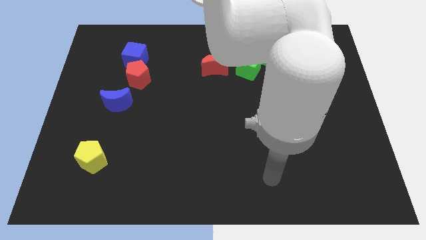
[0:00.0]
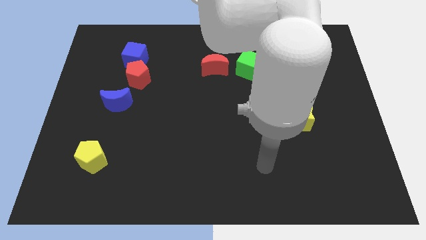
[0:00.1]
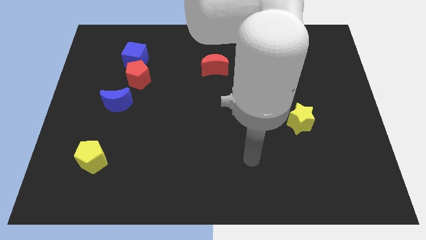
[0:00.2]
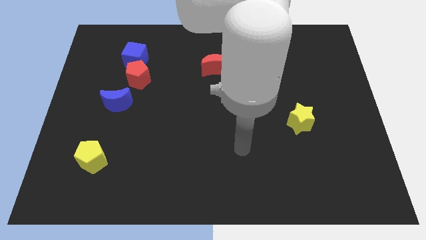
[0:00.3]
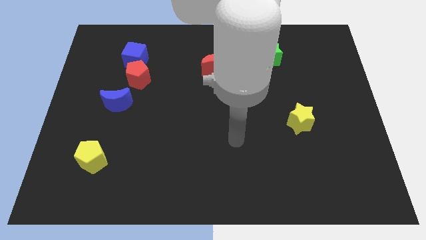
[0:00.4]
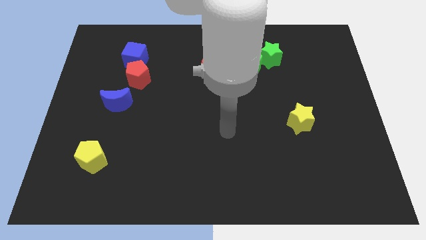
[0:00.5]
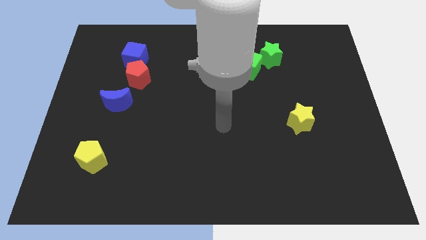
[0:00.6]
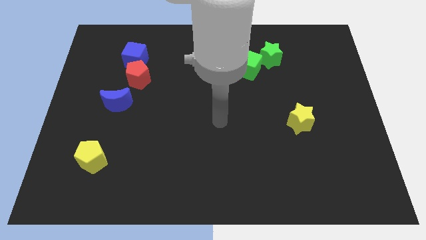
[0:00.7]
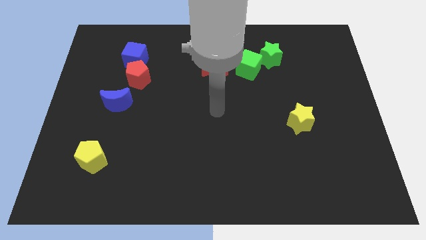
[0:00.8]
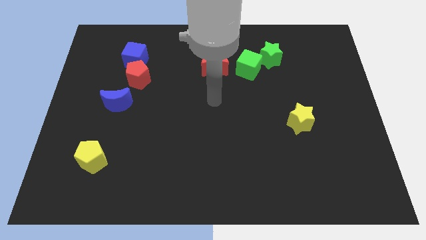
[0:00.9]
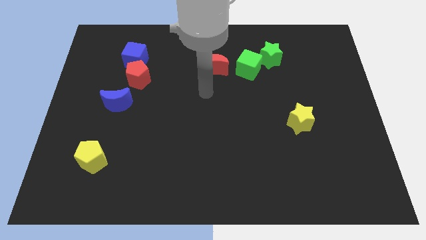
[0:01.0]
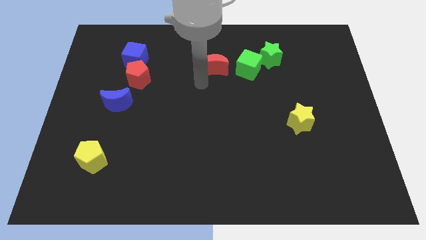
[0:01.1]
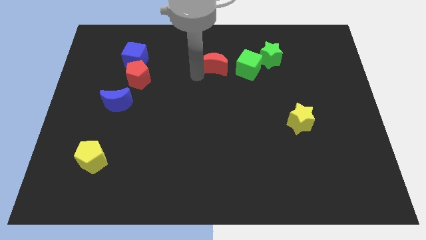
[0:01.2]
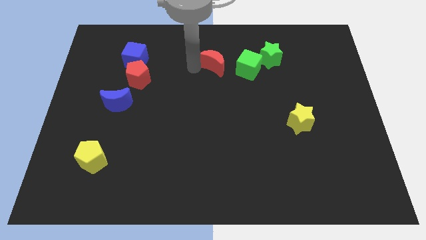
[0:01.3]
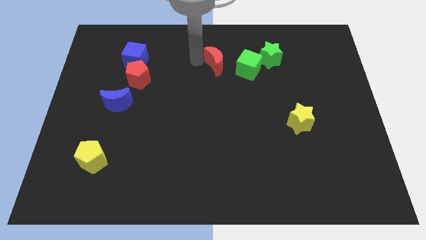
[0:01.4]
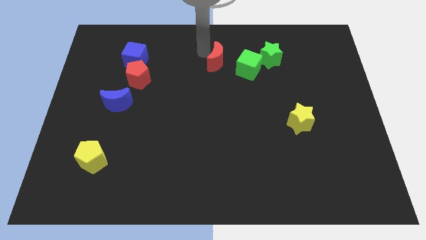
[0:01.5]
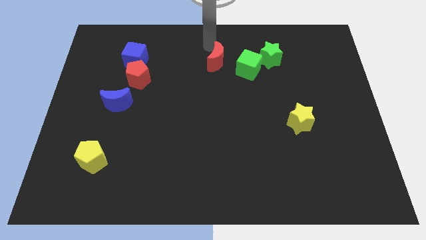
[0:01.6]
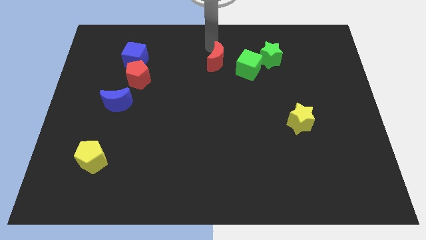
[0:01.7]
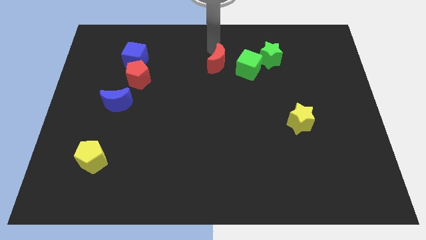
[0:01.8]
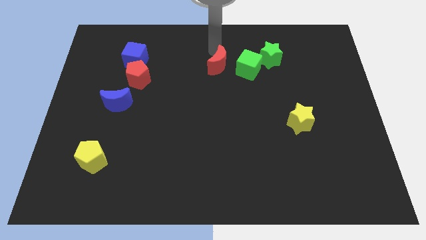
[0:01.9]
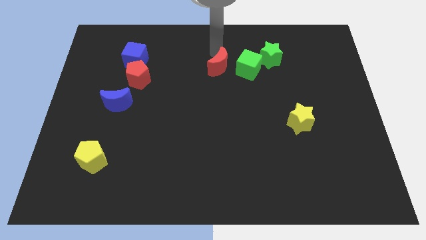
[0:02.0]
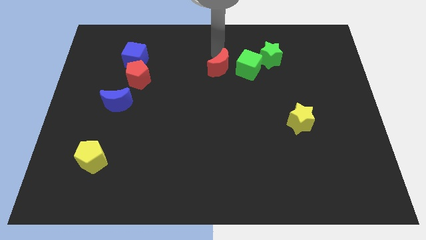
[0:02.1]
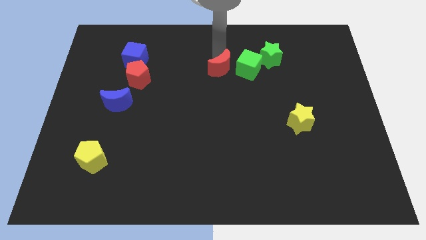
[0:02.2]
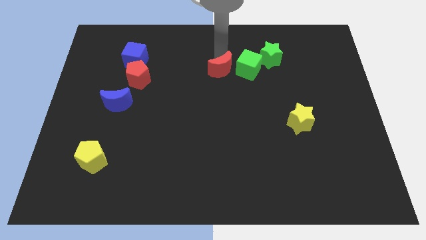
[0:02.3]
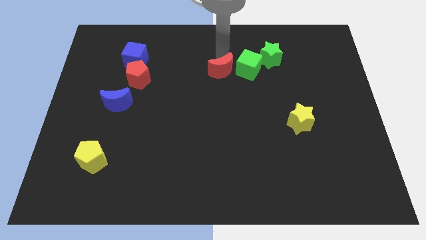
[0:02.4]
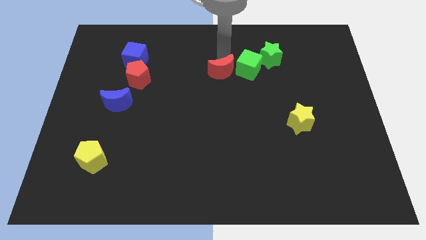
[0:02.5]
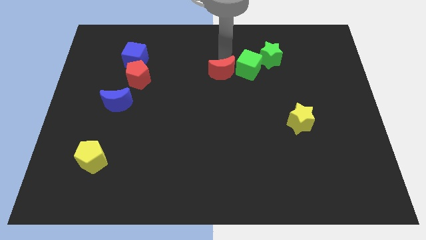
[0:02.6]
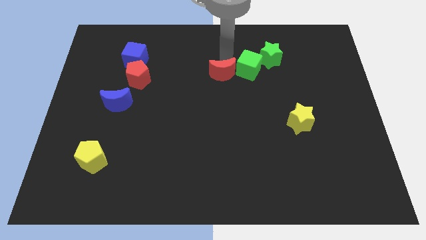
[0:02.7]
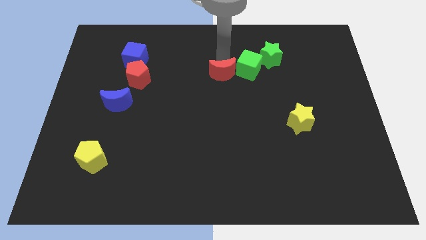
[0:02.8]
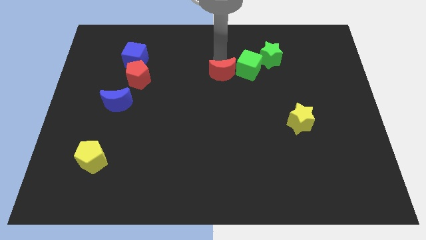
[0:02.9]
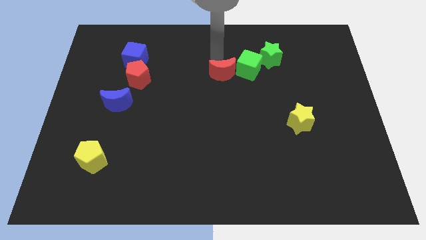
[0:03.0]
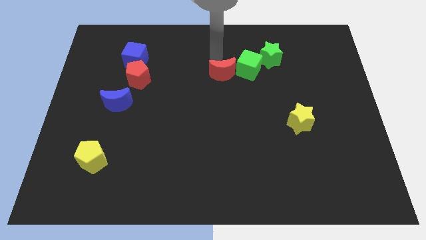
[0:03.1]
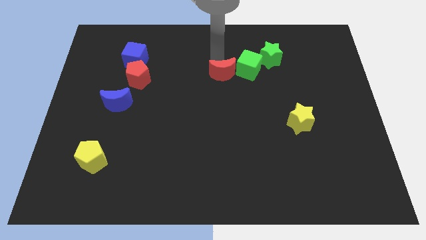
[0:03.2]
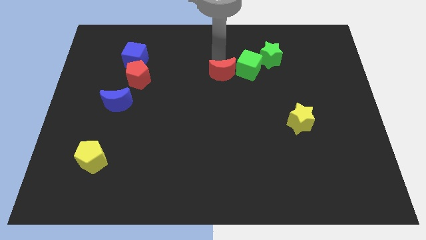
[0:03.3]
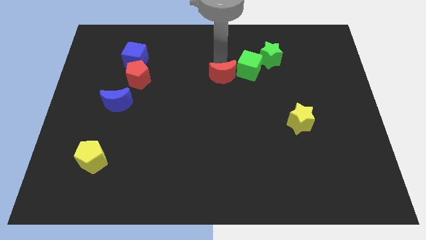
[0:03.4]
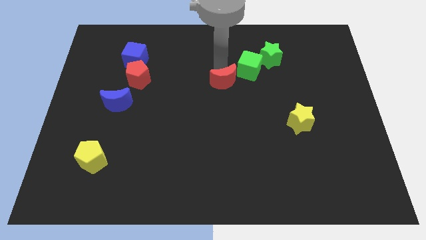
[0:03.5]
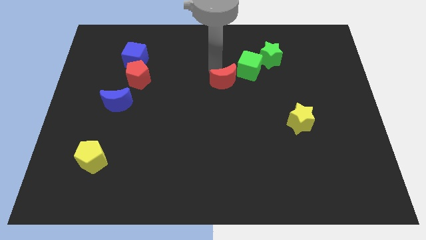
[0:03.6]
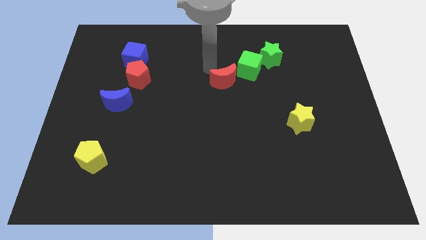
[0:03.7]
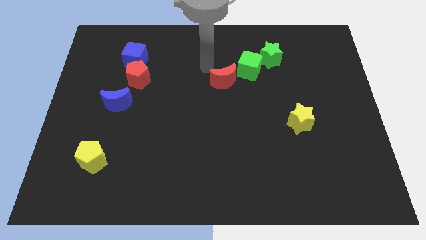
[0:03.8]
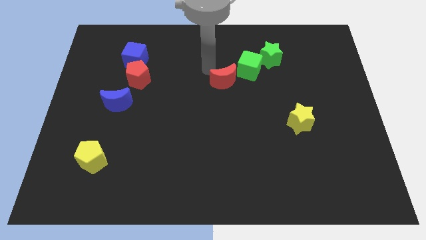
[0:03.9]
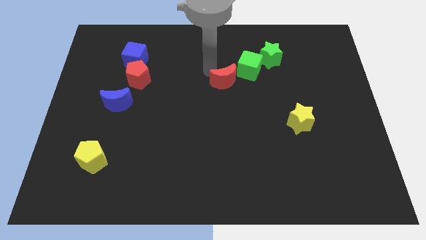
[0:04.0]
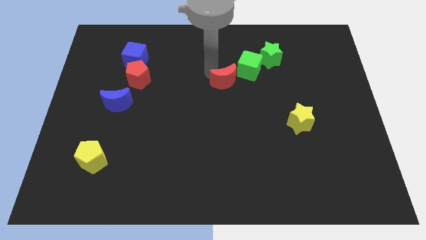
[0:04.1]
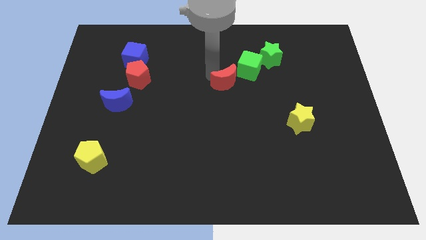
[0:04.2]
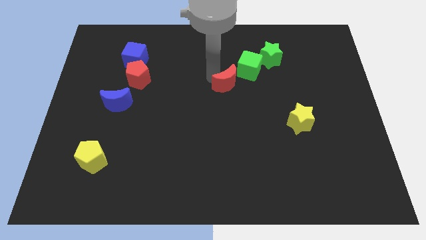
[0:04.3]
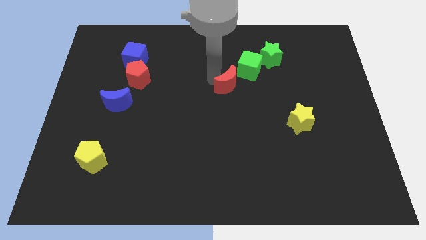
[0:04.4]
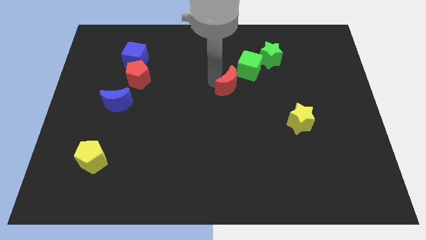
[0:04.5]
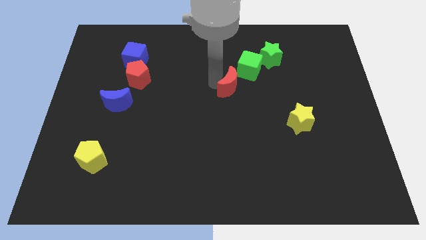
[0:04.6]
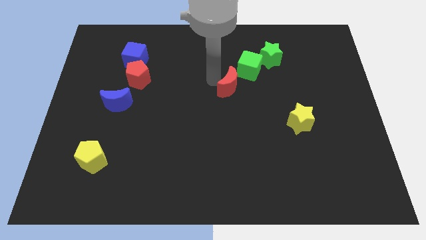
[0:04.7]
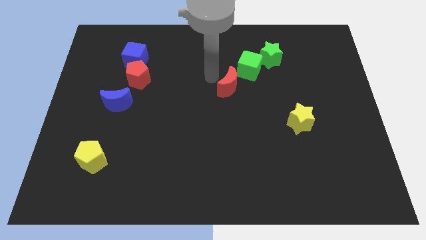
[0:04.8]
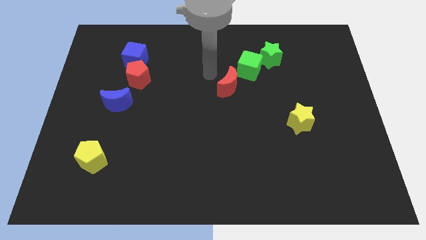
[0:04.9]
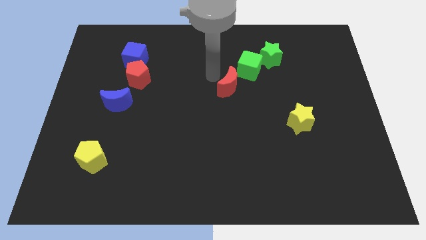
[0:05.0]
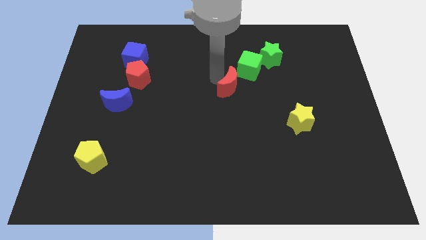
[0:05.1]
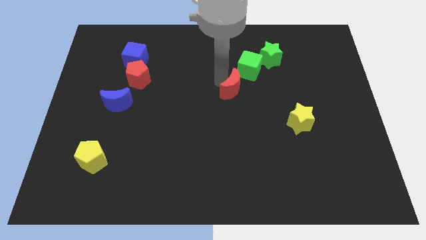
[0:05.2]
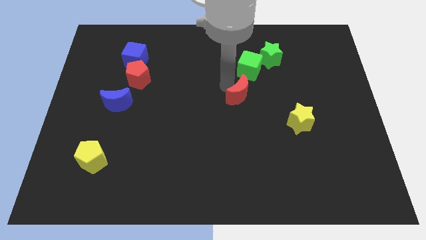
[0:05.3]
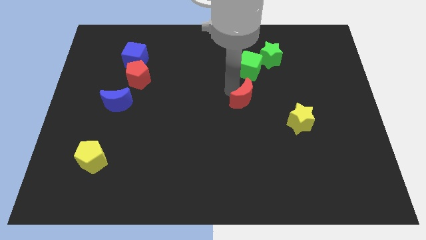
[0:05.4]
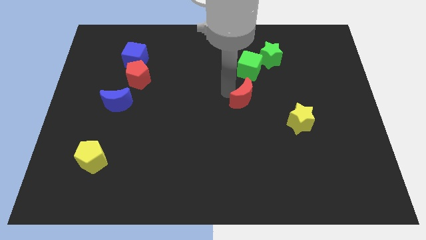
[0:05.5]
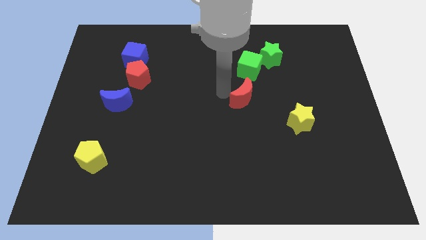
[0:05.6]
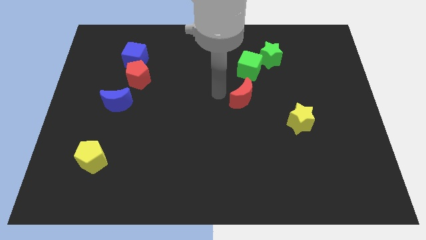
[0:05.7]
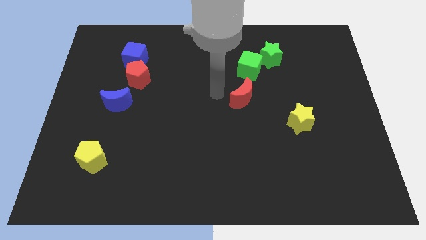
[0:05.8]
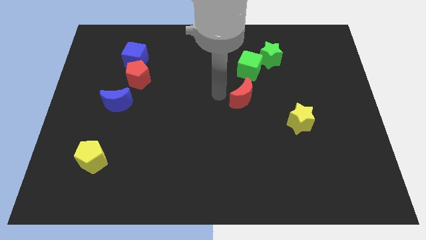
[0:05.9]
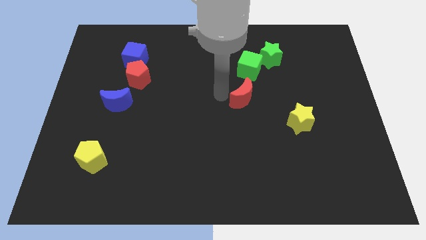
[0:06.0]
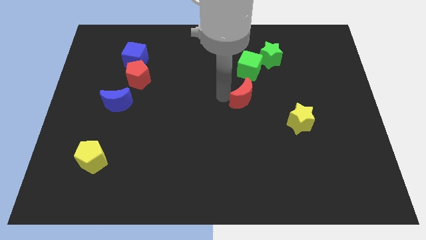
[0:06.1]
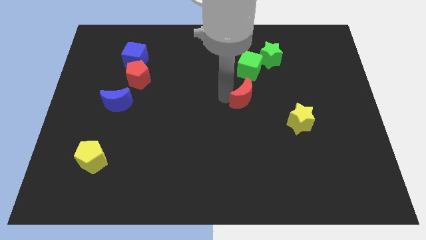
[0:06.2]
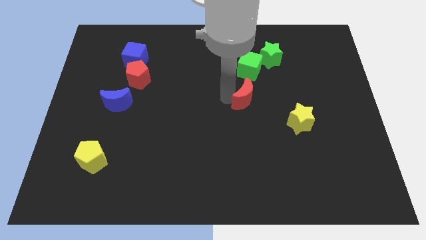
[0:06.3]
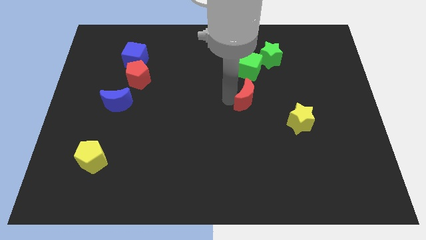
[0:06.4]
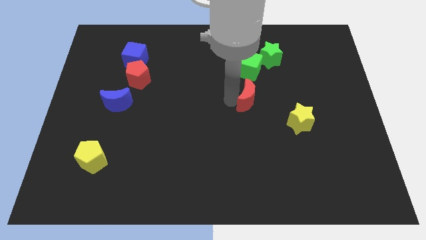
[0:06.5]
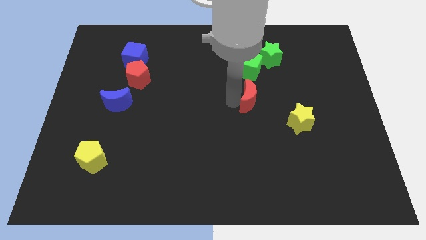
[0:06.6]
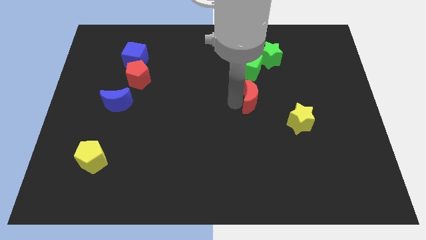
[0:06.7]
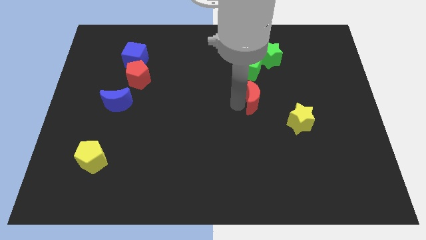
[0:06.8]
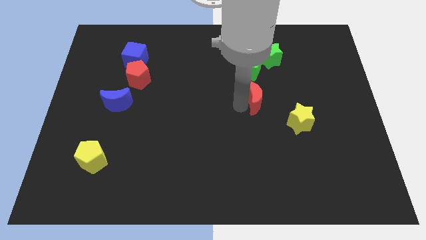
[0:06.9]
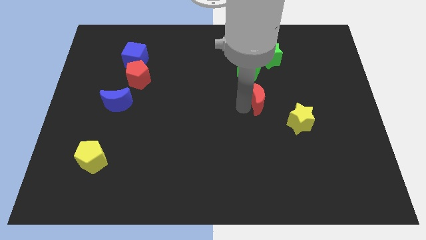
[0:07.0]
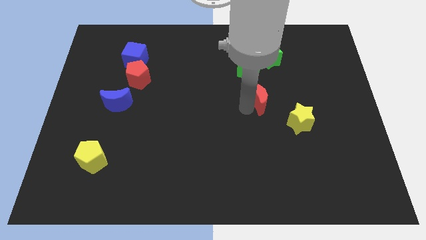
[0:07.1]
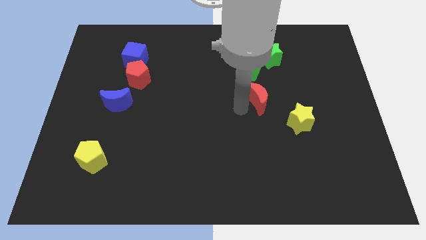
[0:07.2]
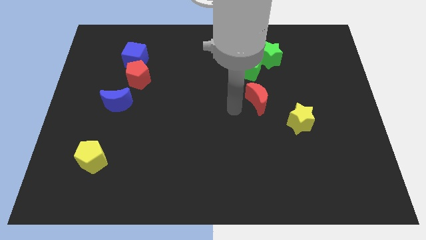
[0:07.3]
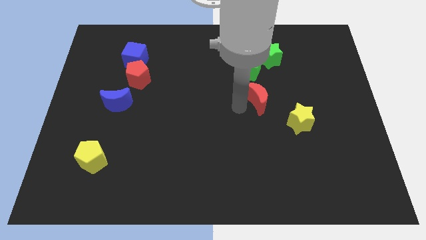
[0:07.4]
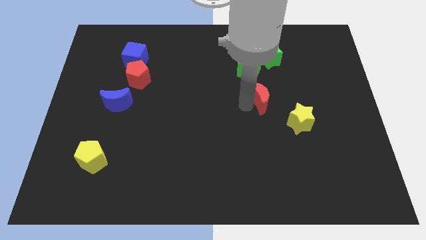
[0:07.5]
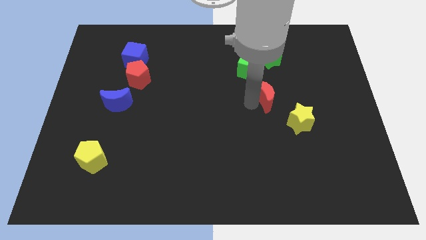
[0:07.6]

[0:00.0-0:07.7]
move the red moon a little to the right
